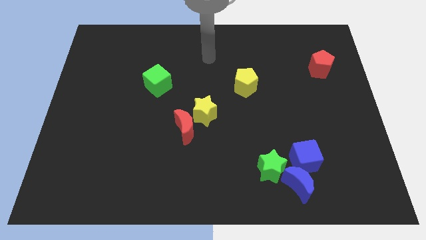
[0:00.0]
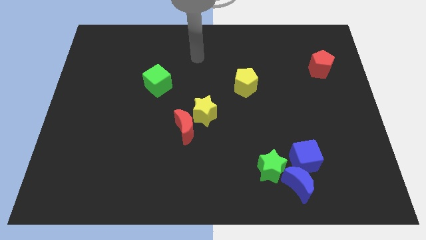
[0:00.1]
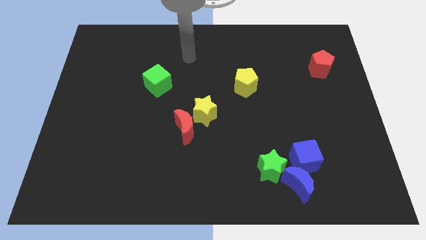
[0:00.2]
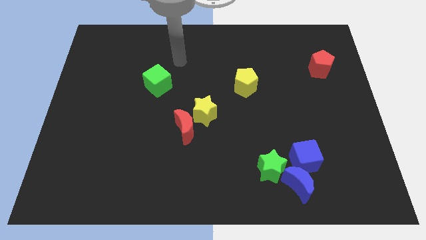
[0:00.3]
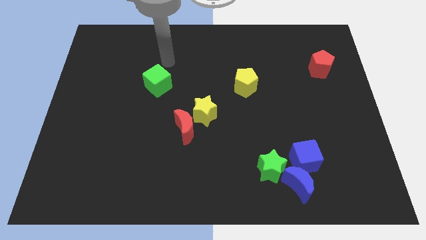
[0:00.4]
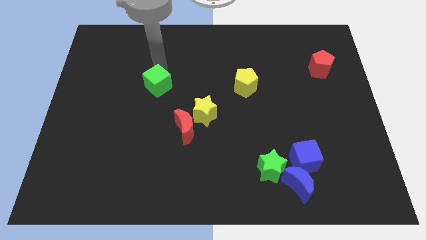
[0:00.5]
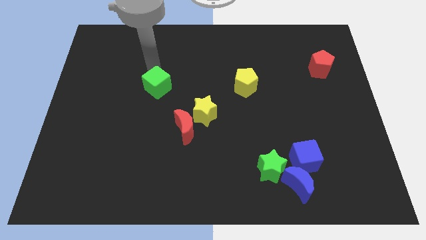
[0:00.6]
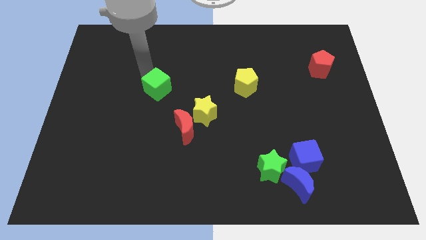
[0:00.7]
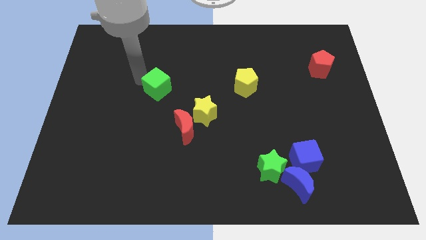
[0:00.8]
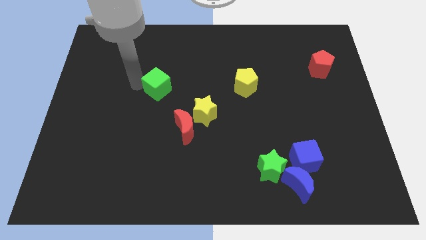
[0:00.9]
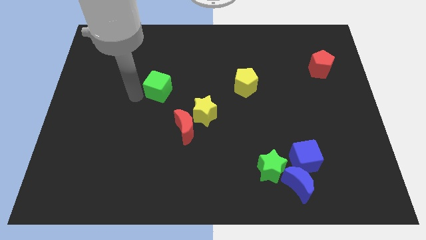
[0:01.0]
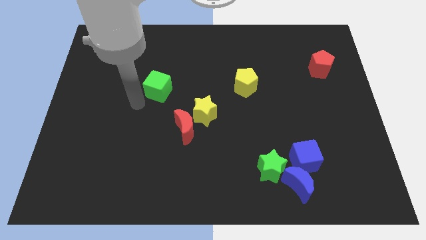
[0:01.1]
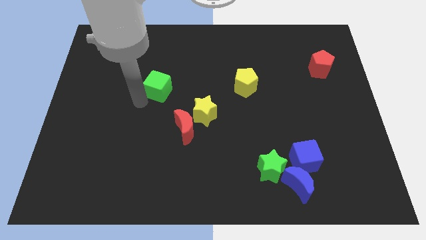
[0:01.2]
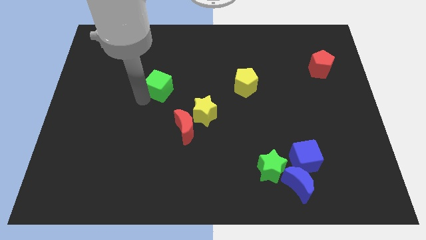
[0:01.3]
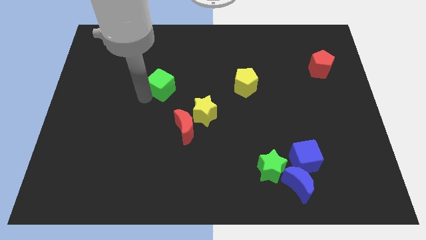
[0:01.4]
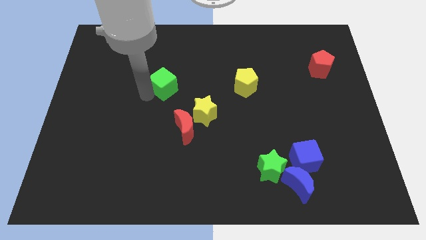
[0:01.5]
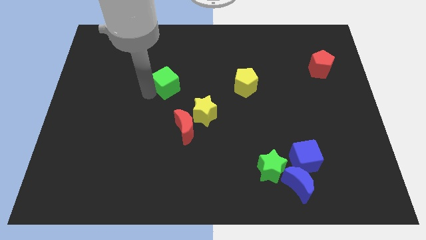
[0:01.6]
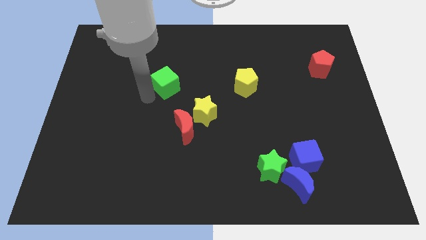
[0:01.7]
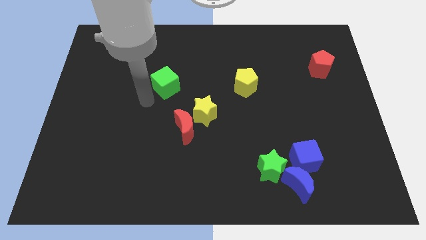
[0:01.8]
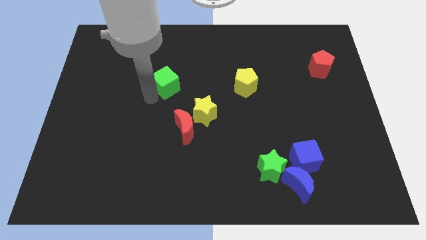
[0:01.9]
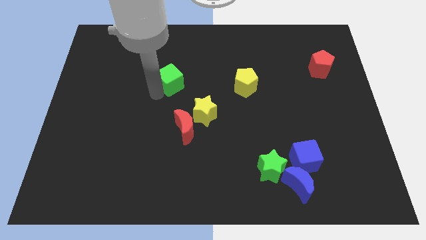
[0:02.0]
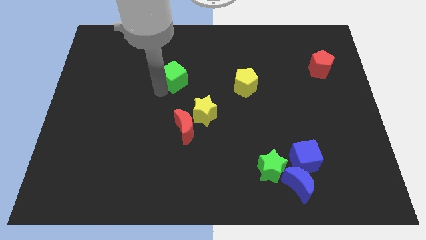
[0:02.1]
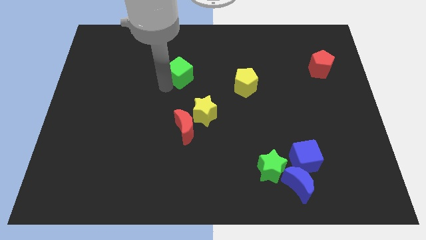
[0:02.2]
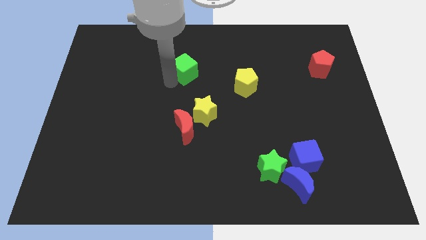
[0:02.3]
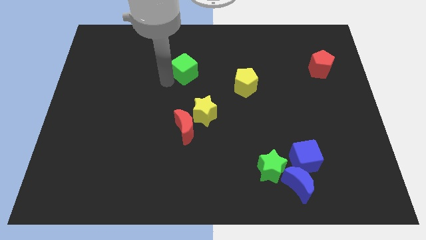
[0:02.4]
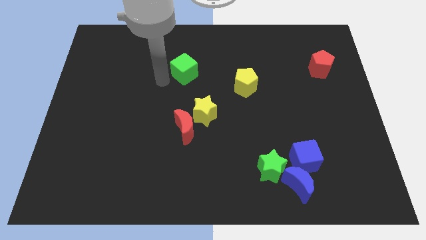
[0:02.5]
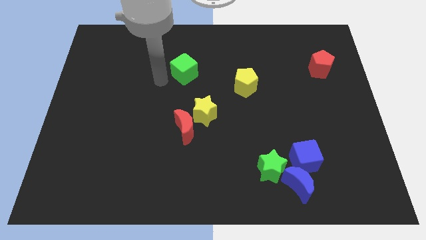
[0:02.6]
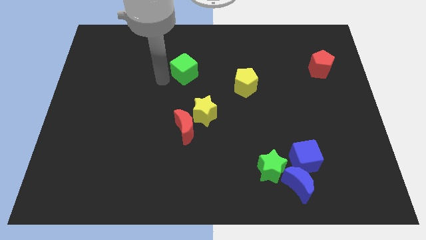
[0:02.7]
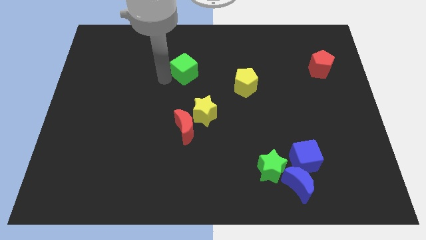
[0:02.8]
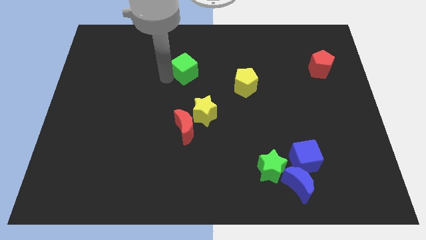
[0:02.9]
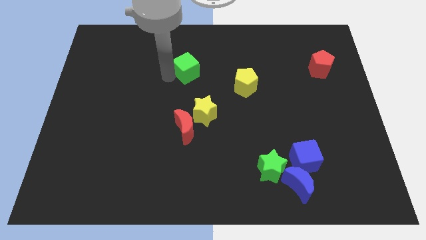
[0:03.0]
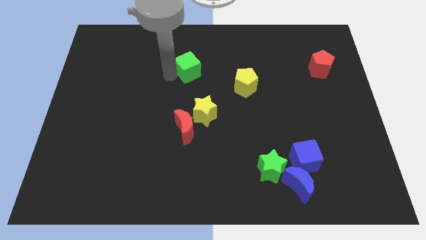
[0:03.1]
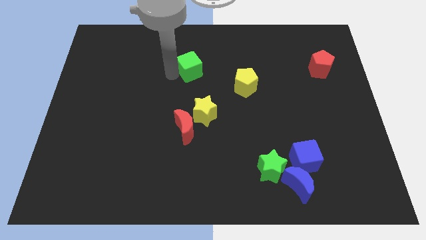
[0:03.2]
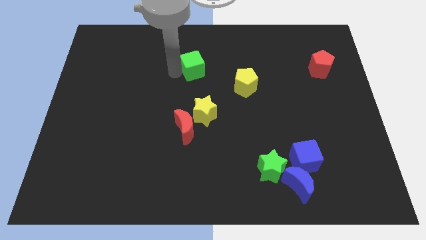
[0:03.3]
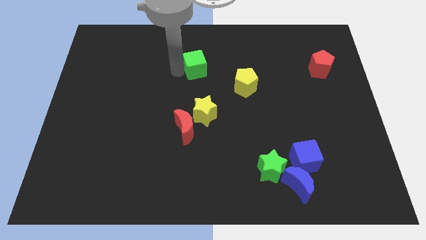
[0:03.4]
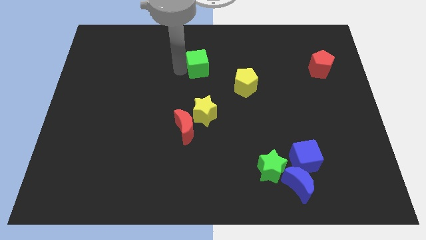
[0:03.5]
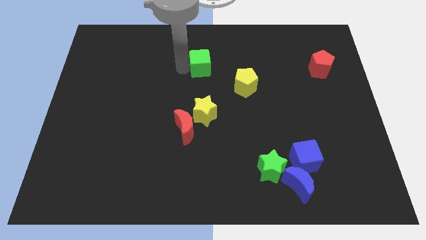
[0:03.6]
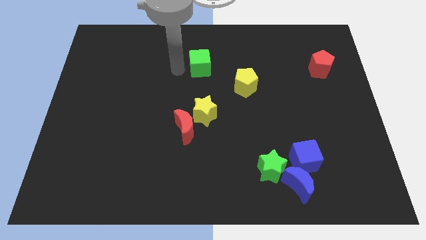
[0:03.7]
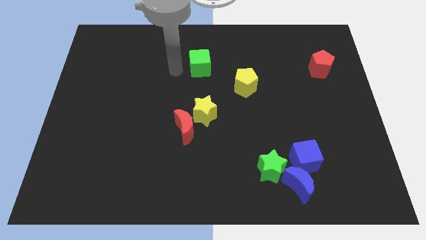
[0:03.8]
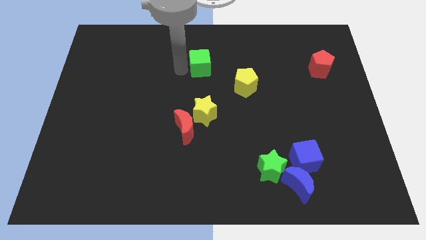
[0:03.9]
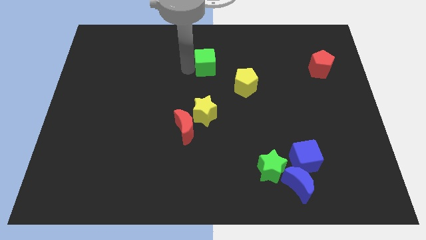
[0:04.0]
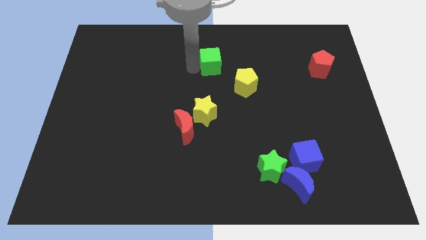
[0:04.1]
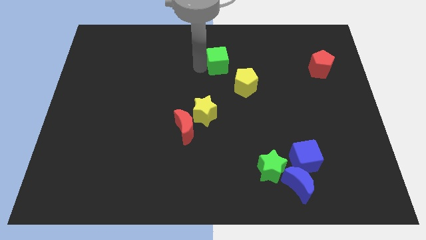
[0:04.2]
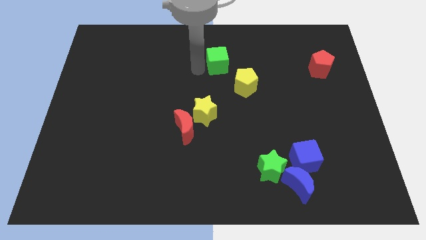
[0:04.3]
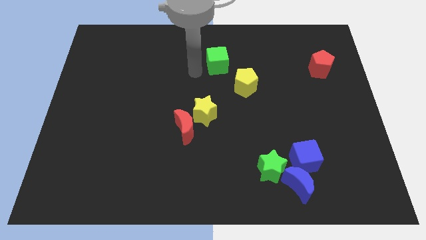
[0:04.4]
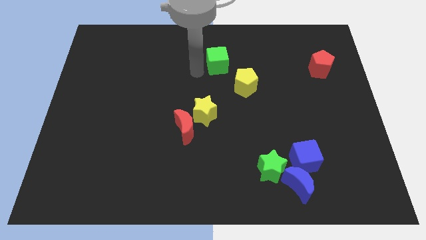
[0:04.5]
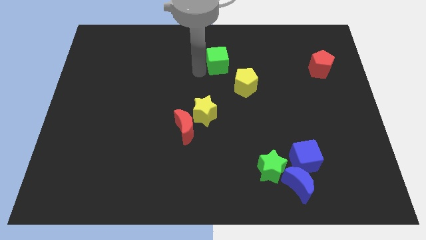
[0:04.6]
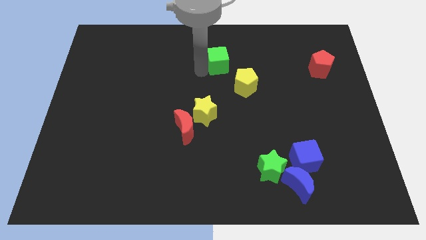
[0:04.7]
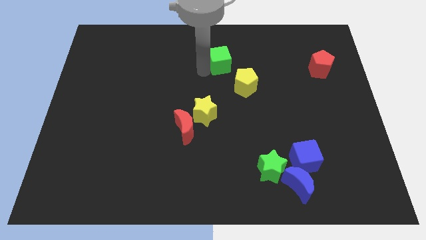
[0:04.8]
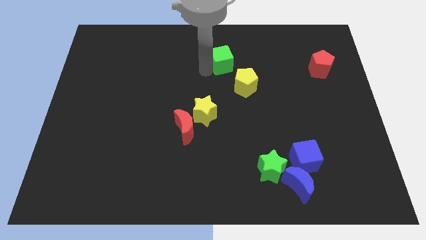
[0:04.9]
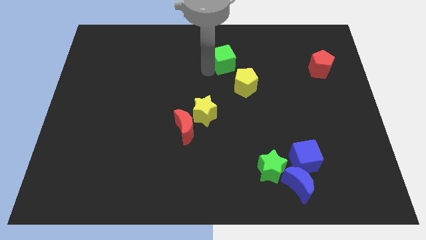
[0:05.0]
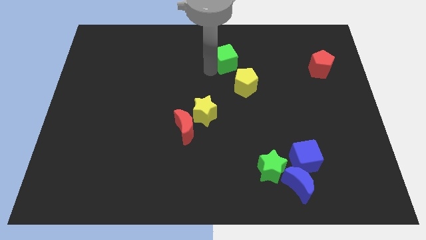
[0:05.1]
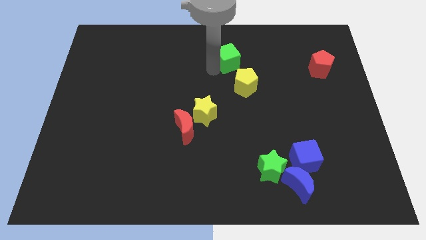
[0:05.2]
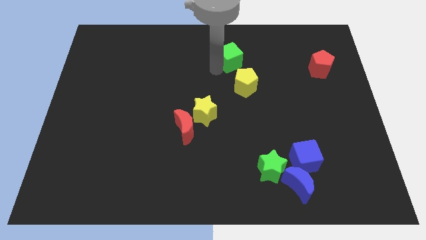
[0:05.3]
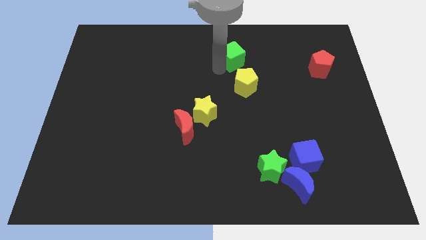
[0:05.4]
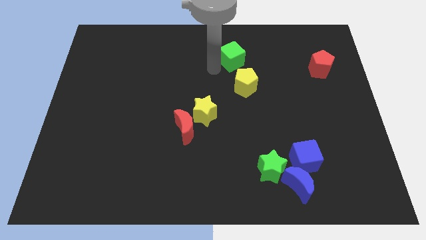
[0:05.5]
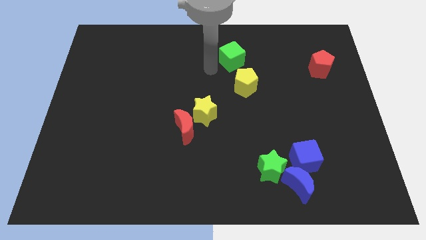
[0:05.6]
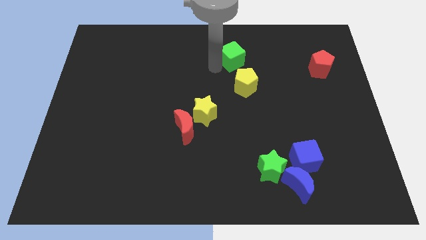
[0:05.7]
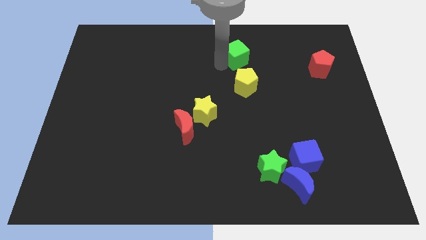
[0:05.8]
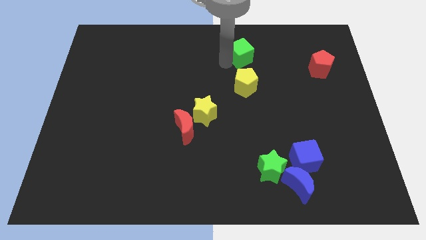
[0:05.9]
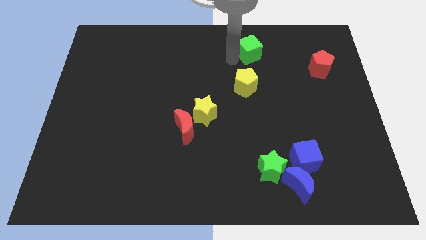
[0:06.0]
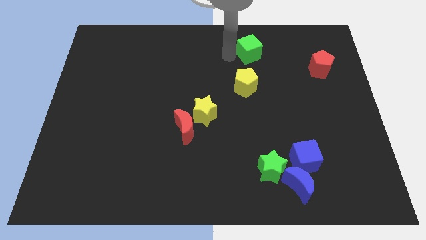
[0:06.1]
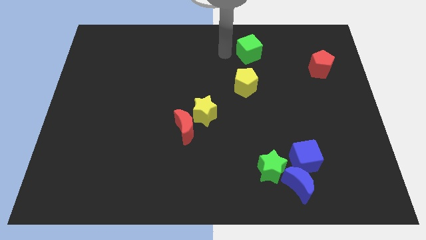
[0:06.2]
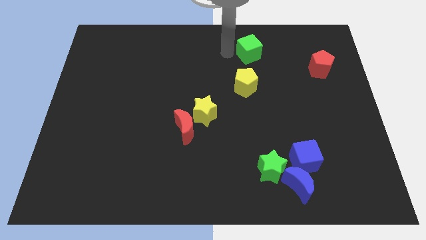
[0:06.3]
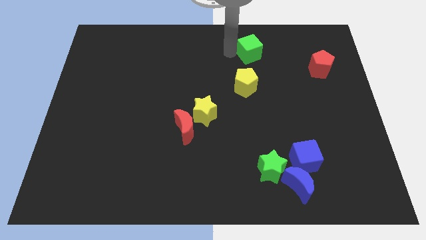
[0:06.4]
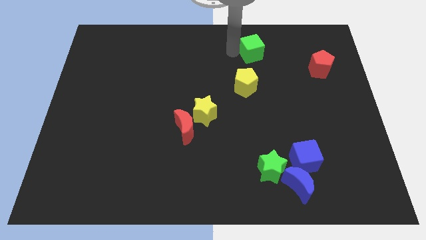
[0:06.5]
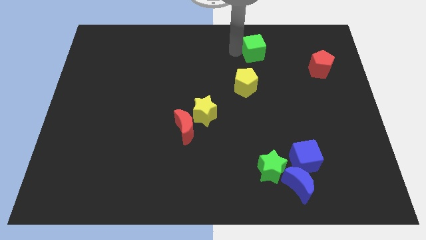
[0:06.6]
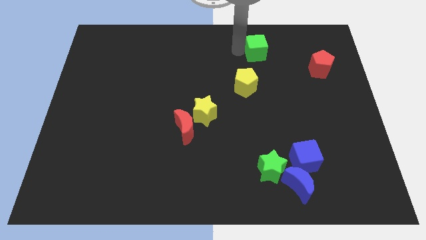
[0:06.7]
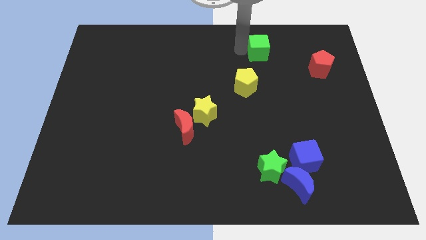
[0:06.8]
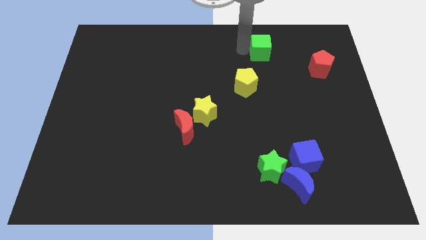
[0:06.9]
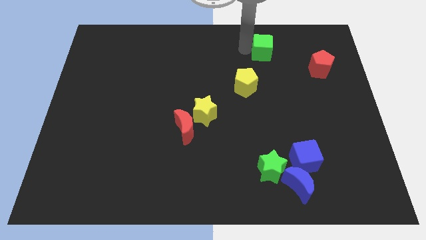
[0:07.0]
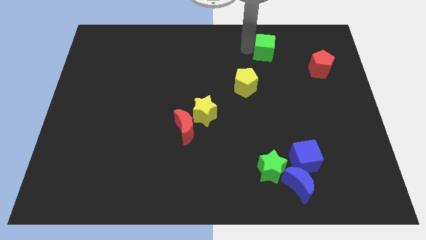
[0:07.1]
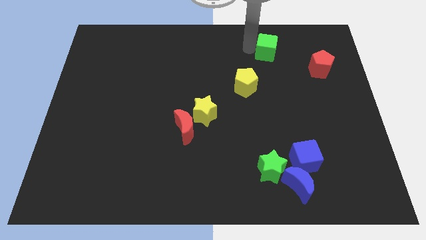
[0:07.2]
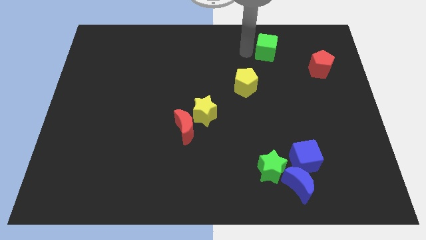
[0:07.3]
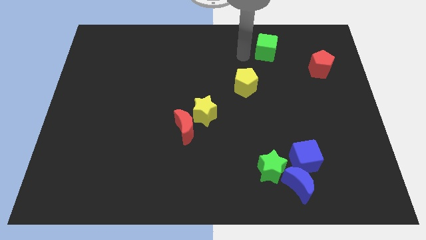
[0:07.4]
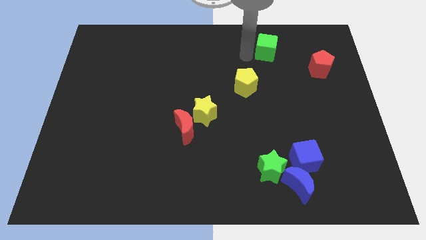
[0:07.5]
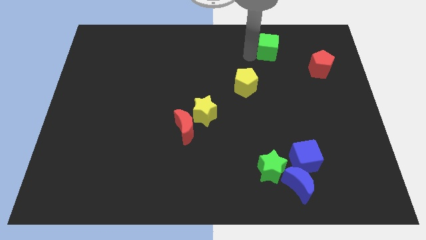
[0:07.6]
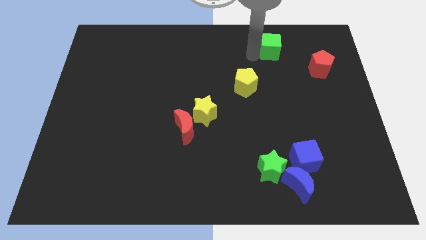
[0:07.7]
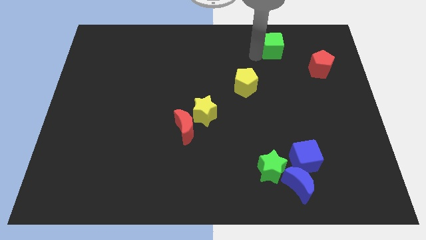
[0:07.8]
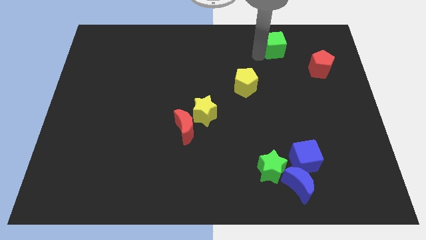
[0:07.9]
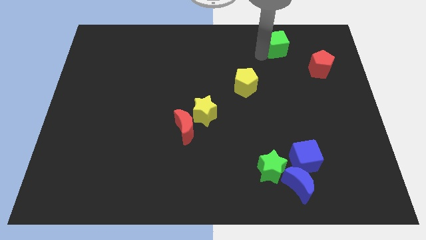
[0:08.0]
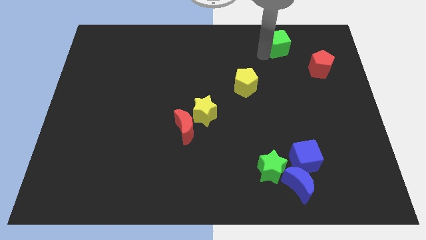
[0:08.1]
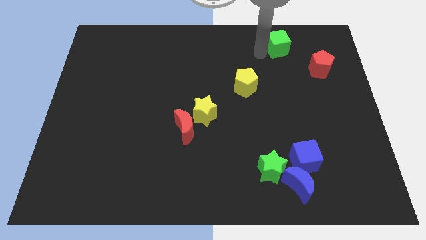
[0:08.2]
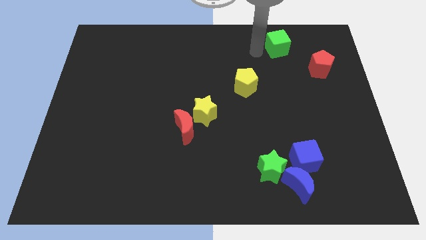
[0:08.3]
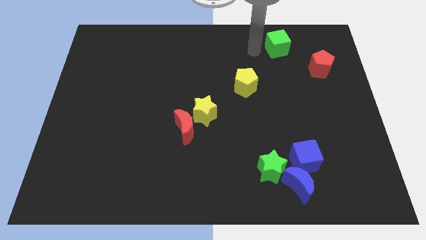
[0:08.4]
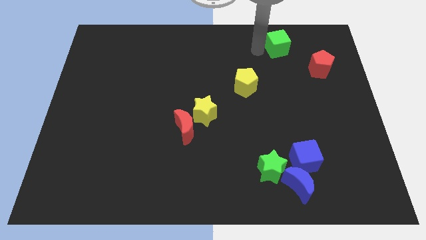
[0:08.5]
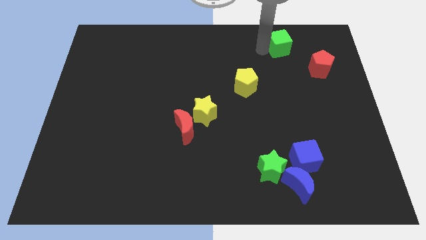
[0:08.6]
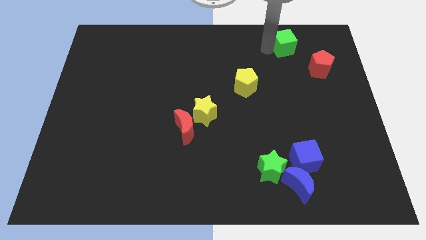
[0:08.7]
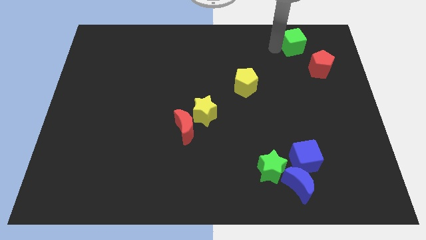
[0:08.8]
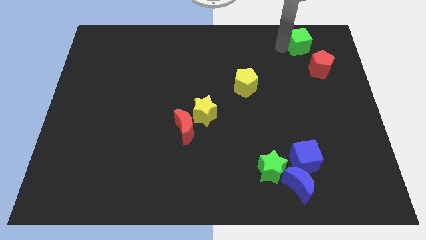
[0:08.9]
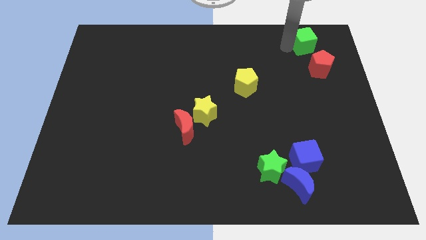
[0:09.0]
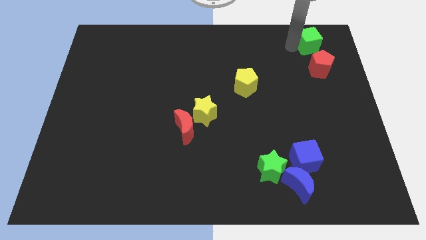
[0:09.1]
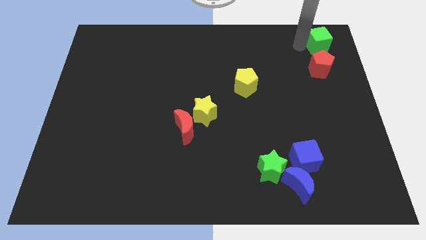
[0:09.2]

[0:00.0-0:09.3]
put the green cube to the upper right corner
